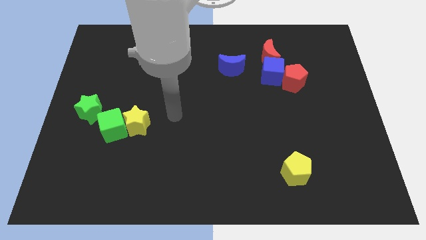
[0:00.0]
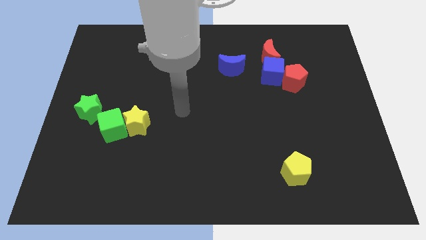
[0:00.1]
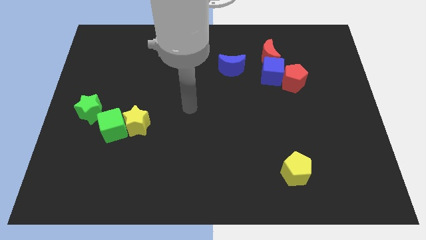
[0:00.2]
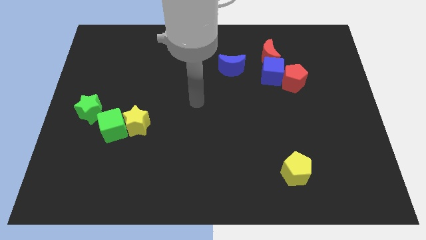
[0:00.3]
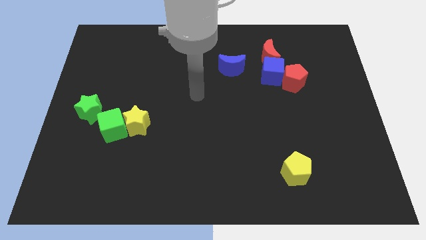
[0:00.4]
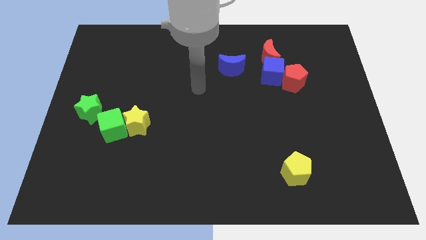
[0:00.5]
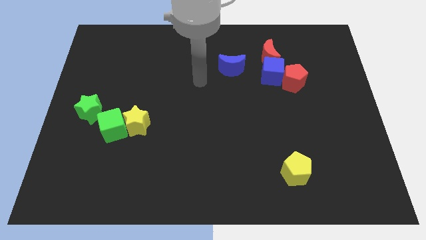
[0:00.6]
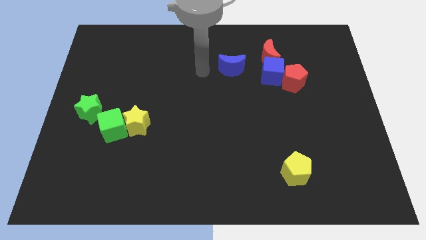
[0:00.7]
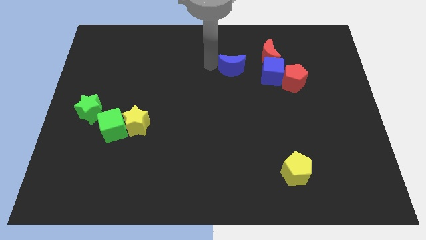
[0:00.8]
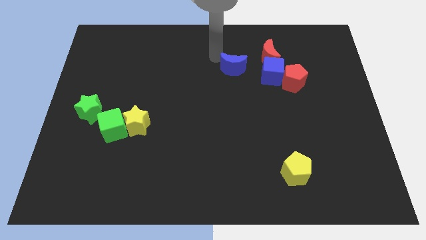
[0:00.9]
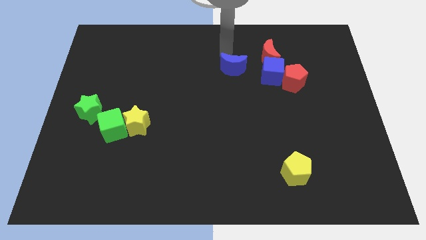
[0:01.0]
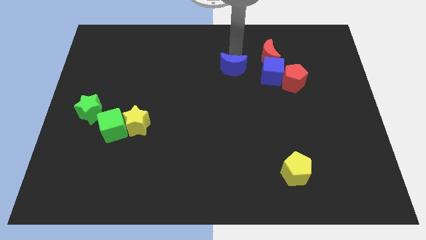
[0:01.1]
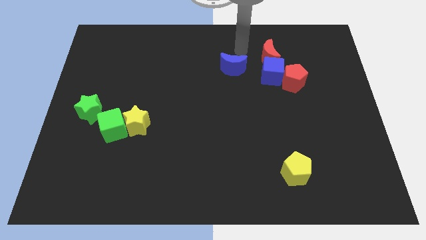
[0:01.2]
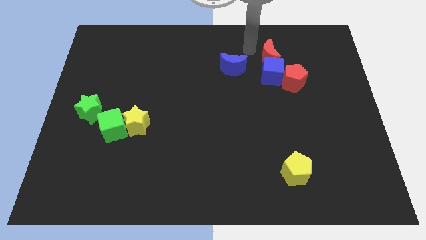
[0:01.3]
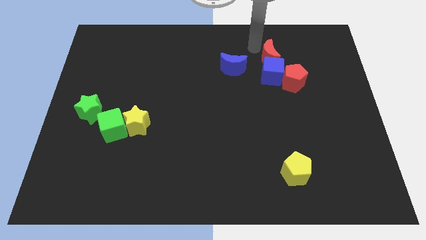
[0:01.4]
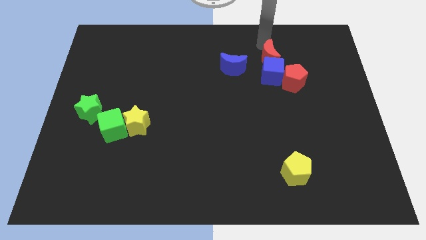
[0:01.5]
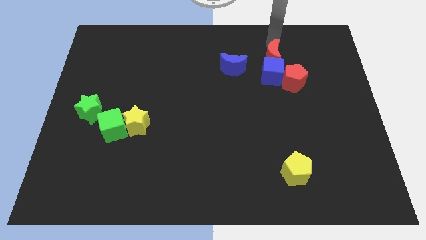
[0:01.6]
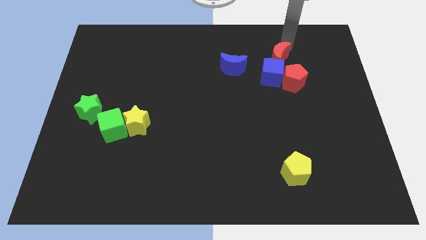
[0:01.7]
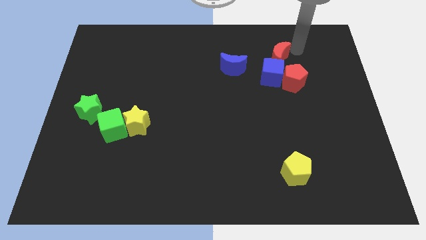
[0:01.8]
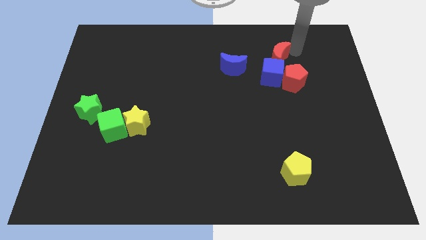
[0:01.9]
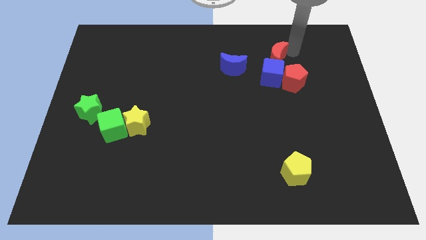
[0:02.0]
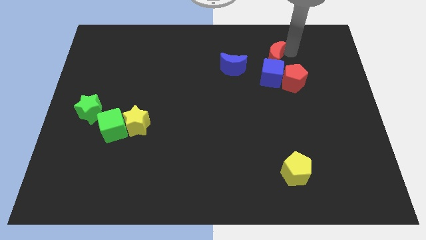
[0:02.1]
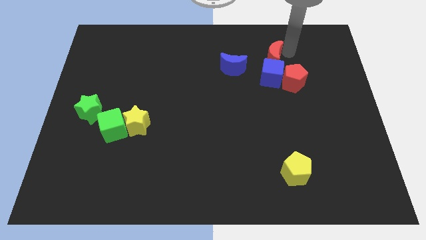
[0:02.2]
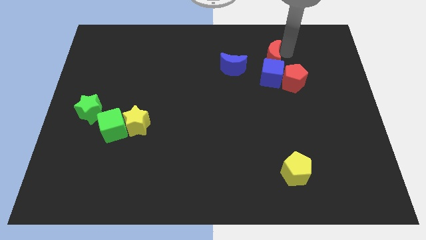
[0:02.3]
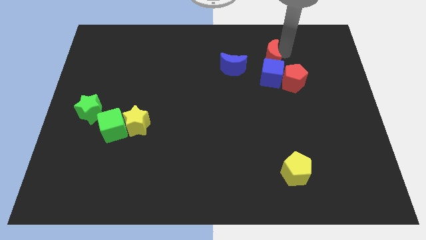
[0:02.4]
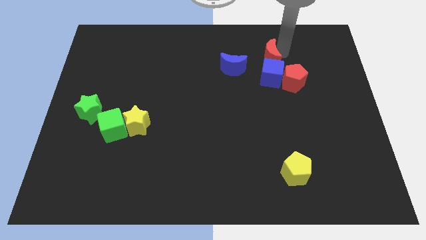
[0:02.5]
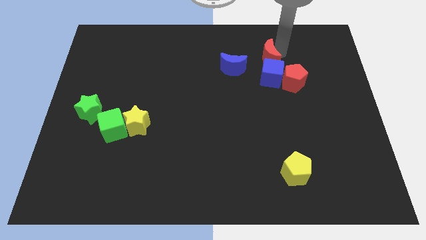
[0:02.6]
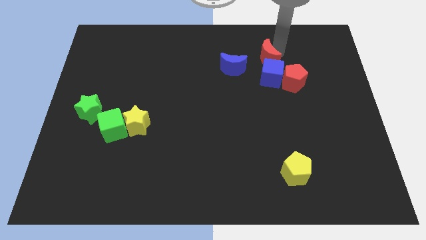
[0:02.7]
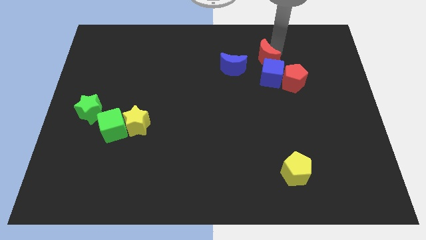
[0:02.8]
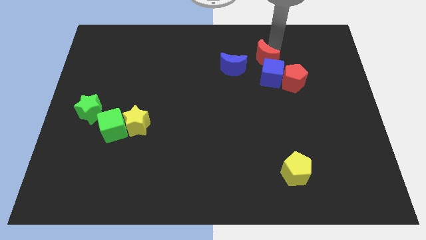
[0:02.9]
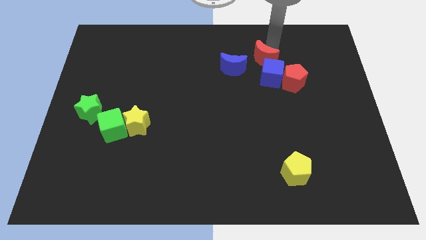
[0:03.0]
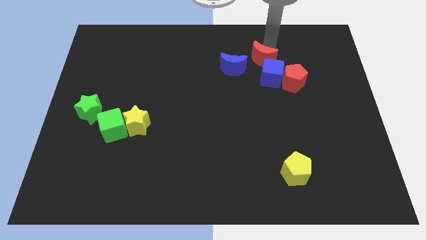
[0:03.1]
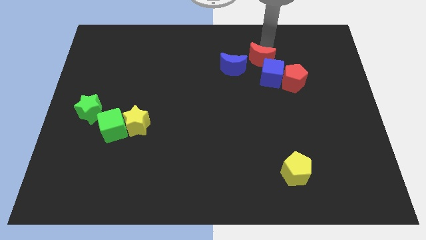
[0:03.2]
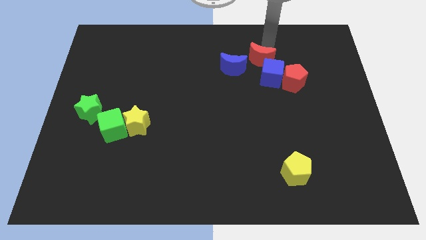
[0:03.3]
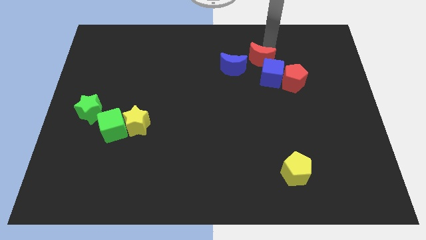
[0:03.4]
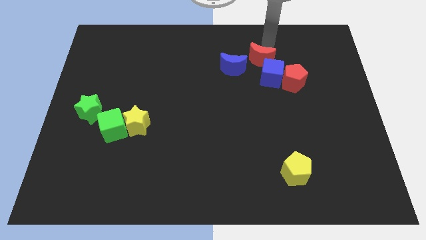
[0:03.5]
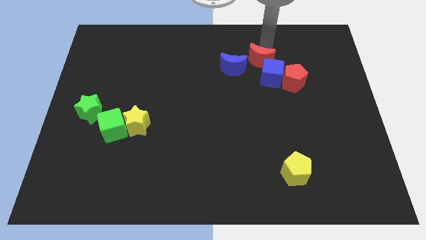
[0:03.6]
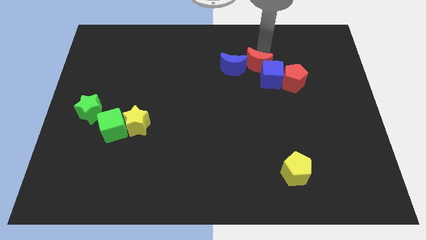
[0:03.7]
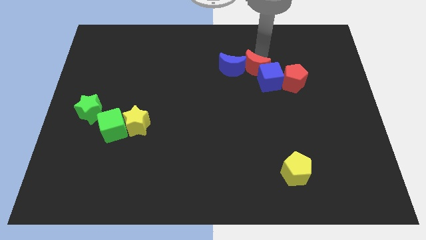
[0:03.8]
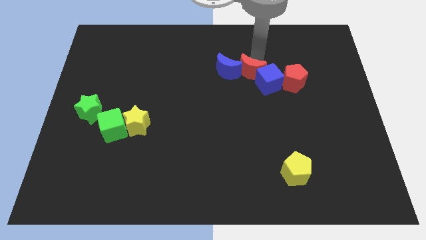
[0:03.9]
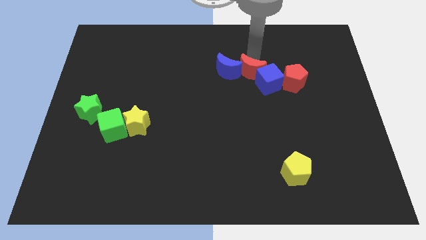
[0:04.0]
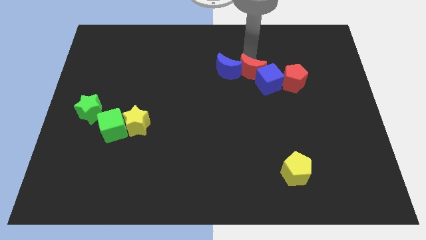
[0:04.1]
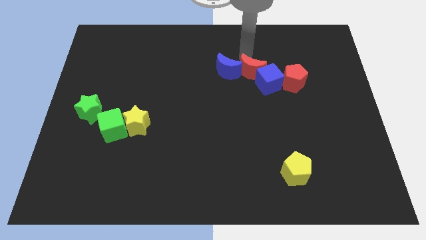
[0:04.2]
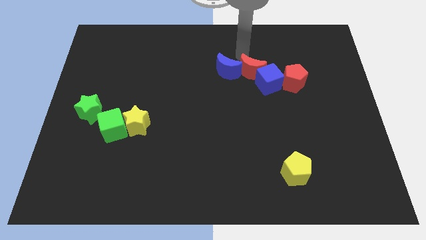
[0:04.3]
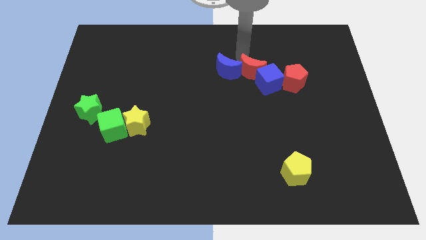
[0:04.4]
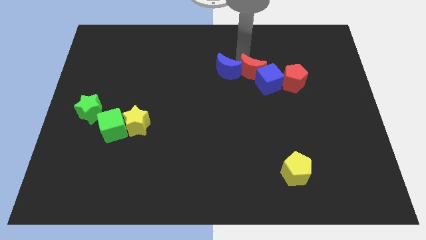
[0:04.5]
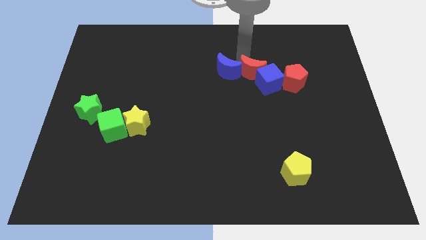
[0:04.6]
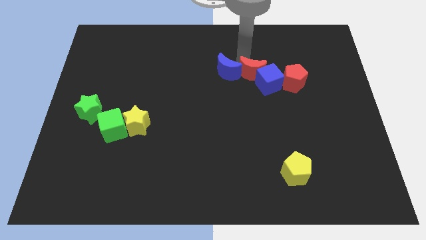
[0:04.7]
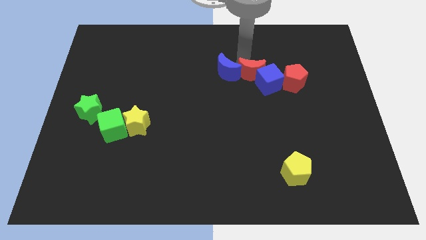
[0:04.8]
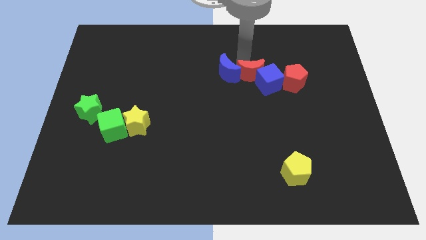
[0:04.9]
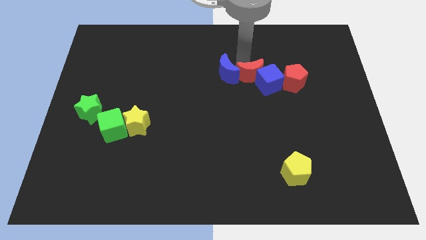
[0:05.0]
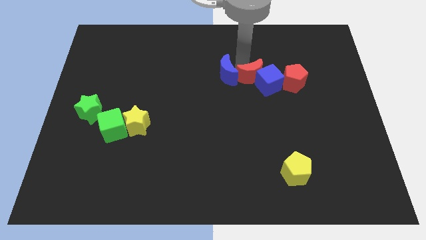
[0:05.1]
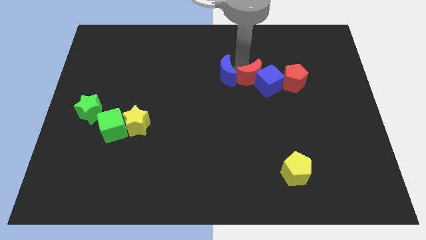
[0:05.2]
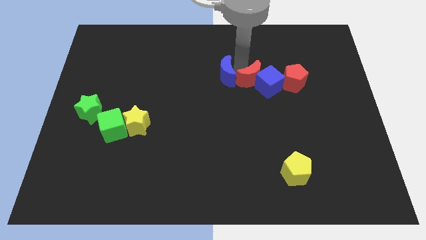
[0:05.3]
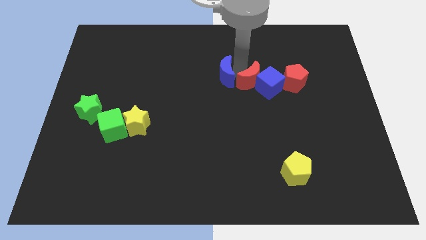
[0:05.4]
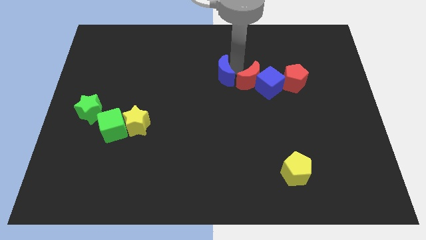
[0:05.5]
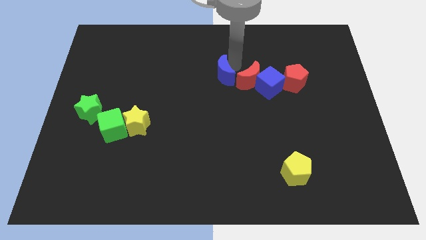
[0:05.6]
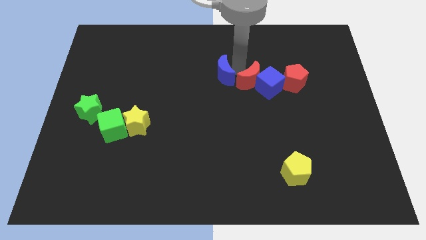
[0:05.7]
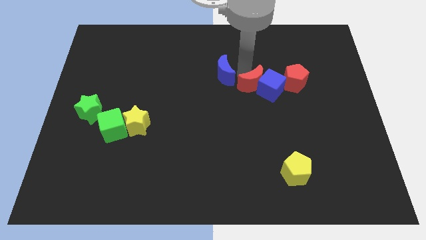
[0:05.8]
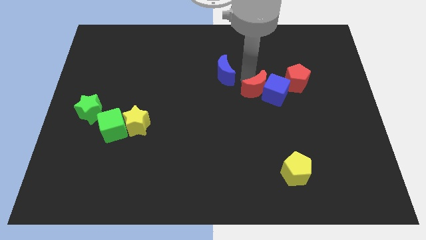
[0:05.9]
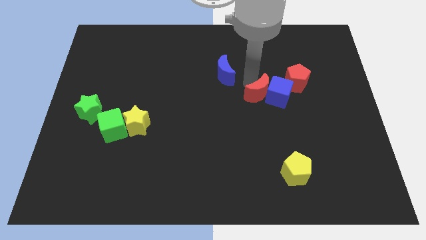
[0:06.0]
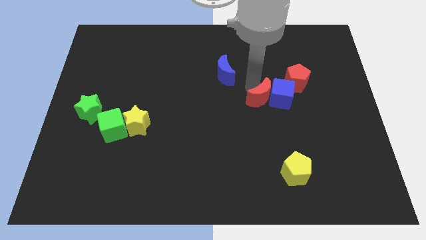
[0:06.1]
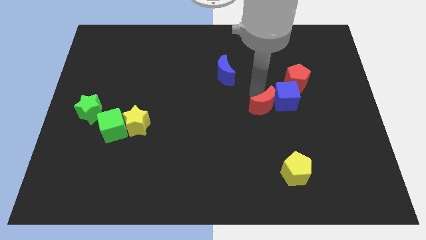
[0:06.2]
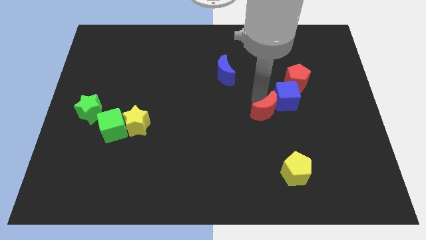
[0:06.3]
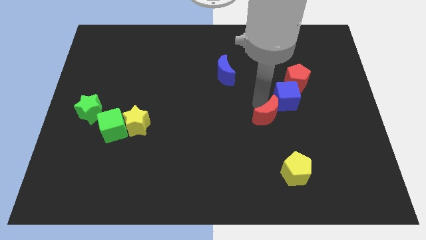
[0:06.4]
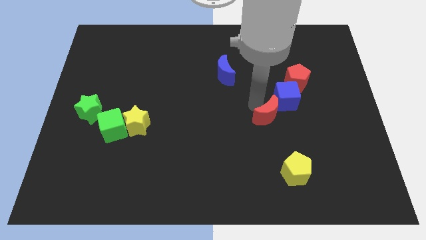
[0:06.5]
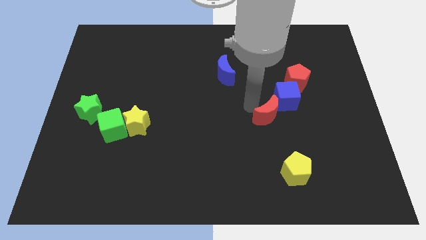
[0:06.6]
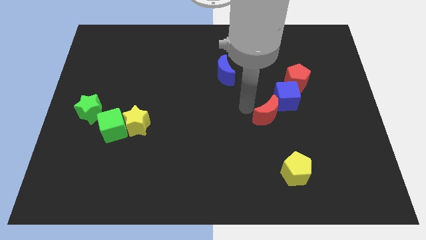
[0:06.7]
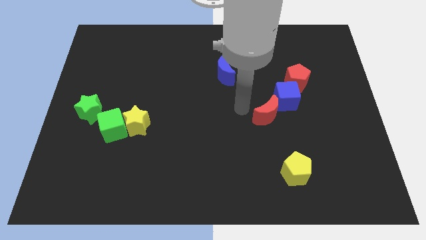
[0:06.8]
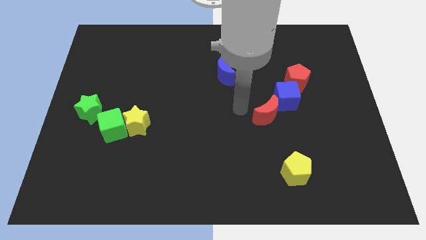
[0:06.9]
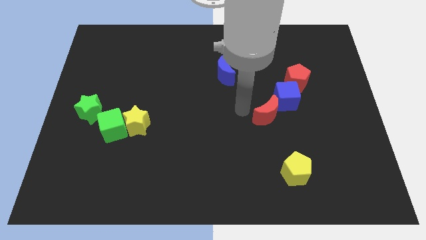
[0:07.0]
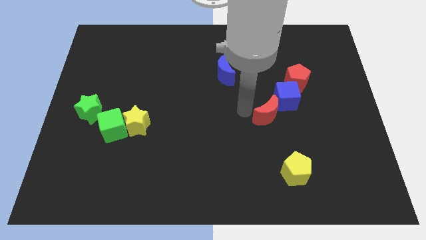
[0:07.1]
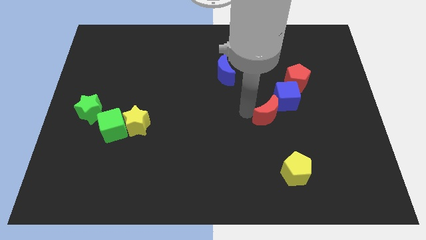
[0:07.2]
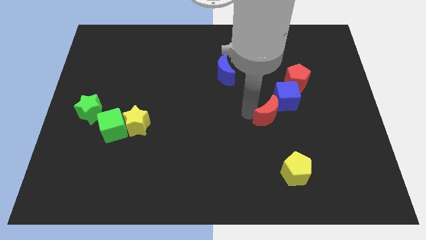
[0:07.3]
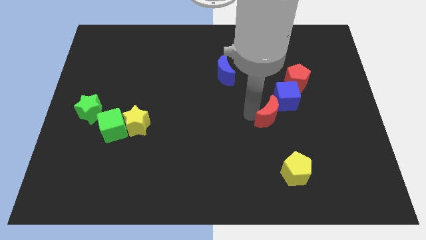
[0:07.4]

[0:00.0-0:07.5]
slide the red moon above the yellow pentagon
